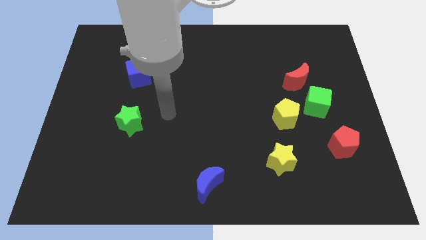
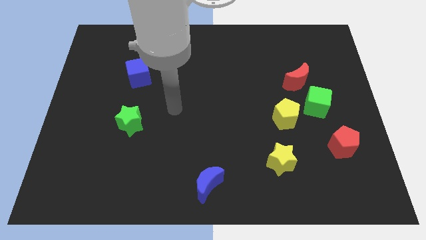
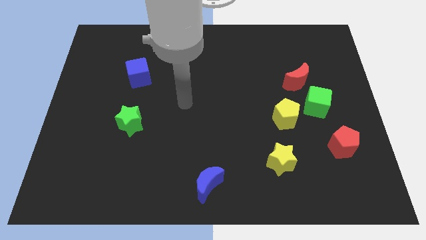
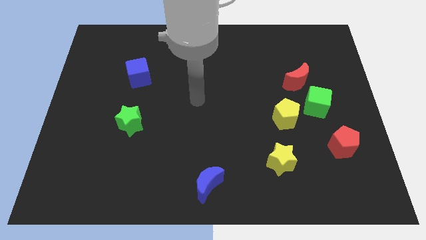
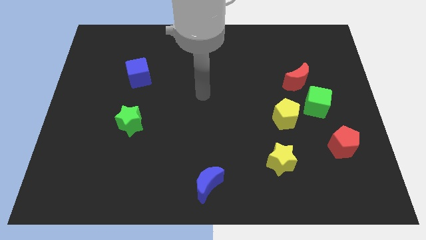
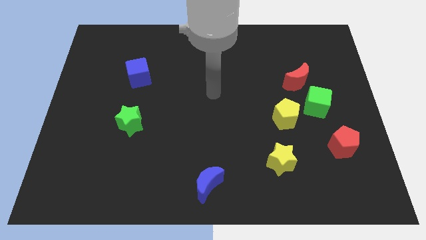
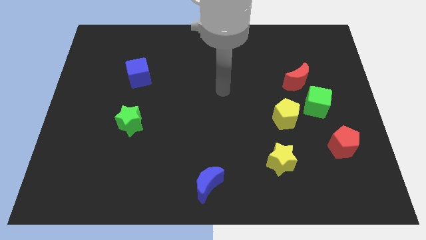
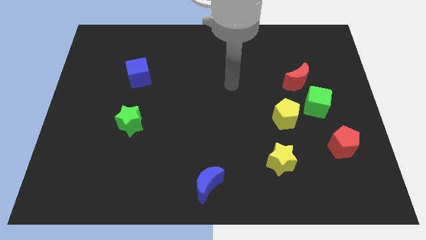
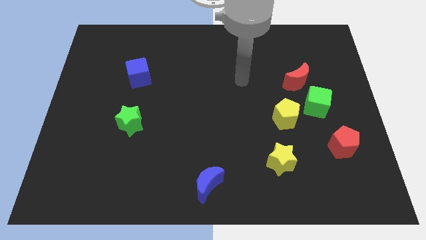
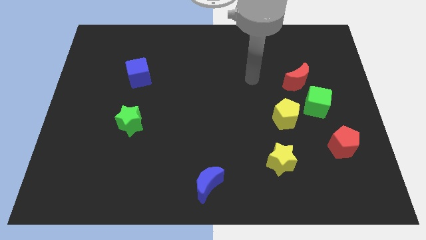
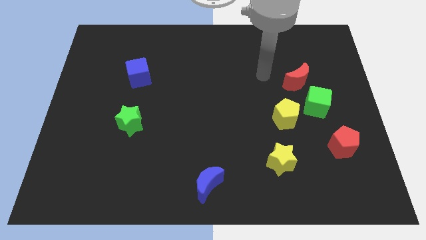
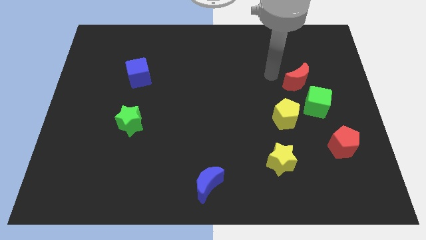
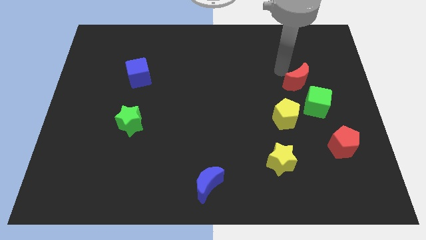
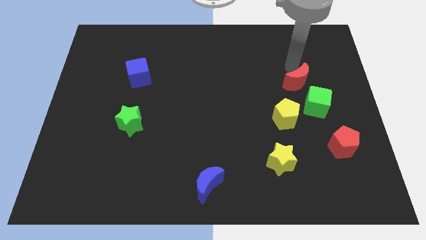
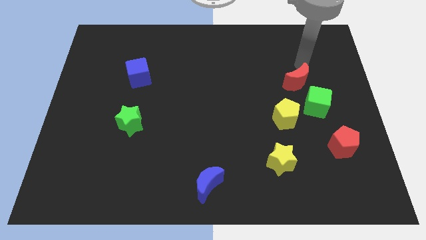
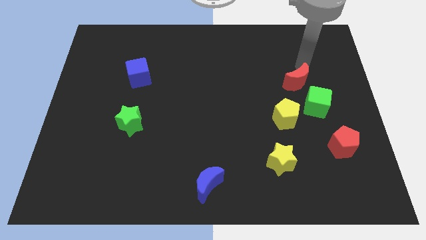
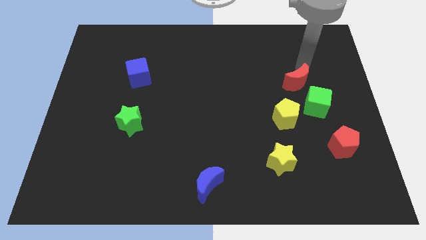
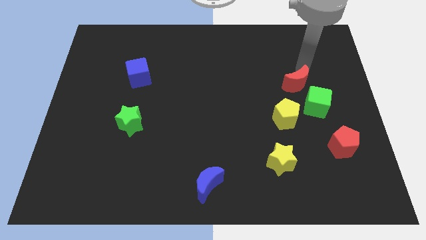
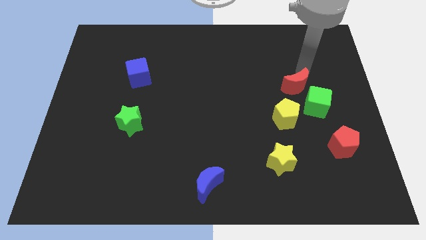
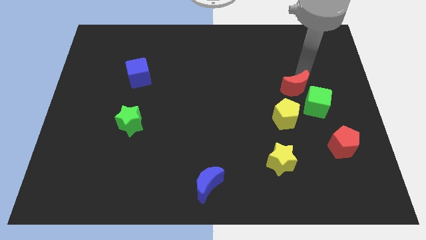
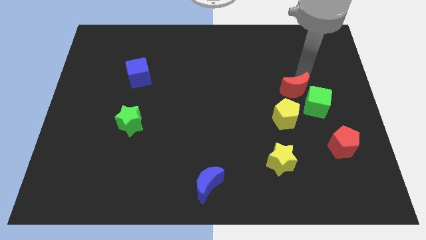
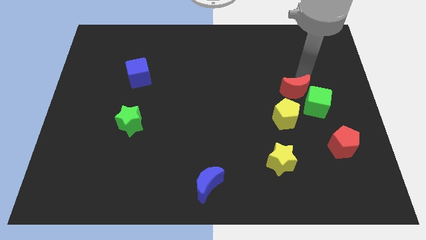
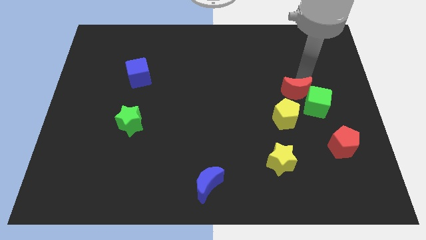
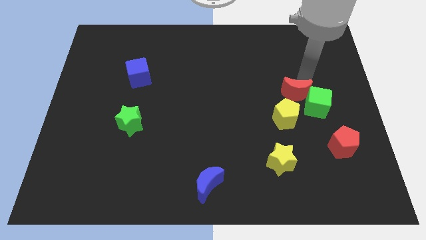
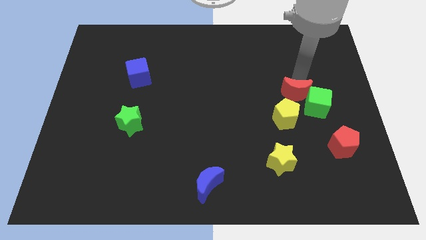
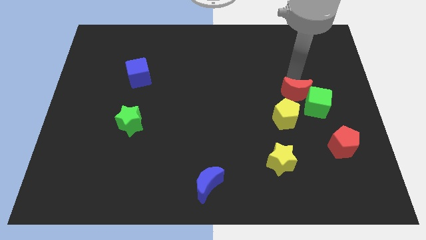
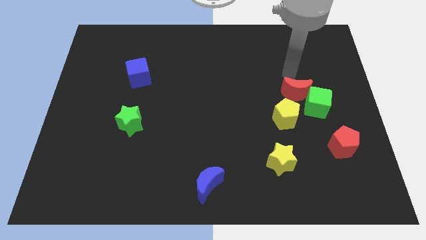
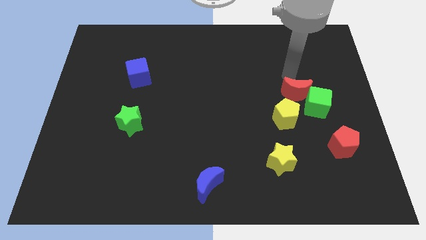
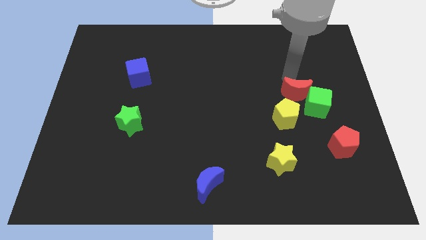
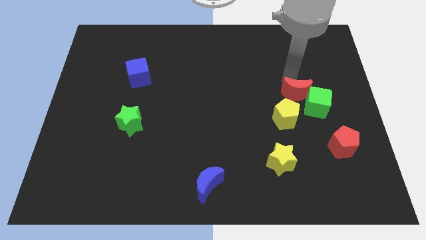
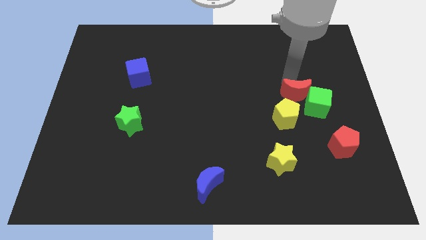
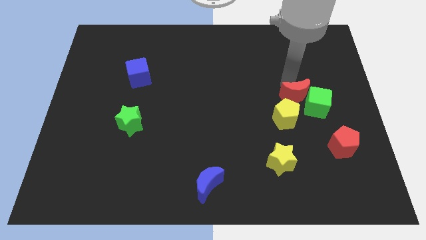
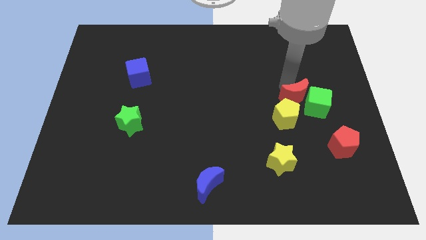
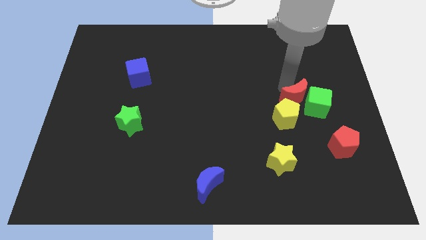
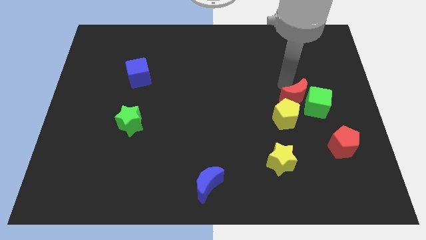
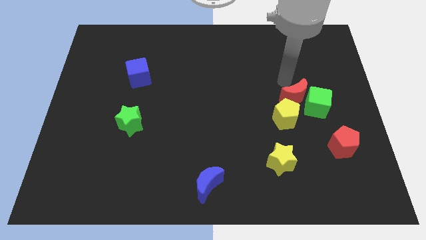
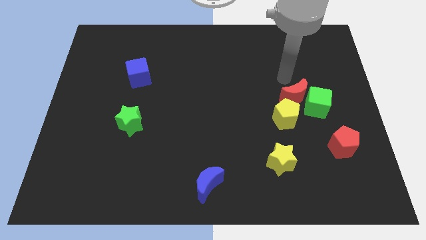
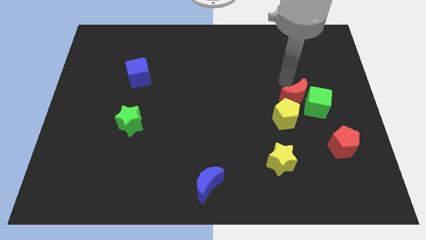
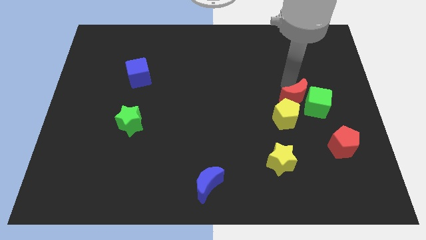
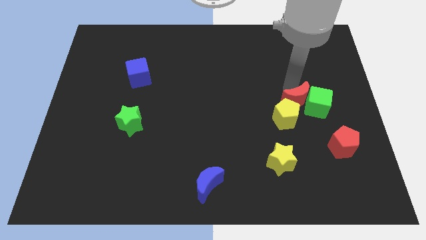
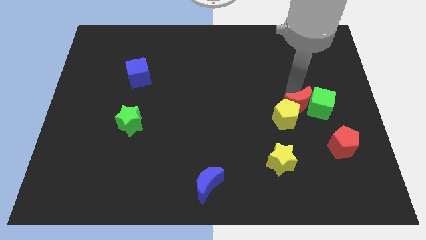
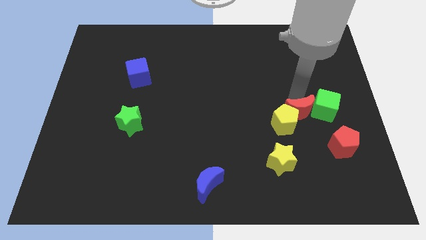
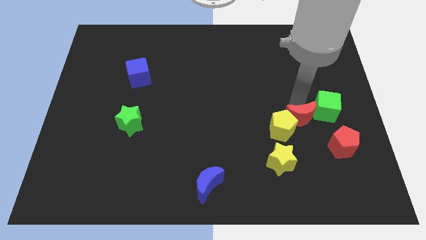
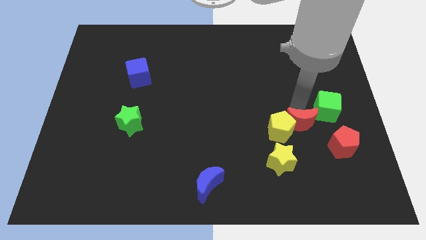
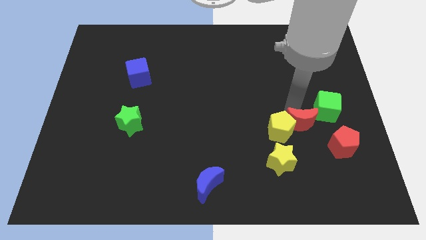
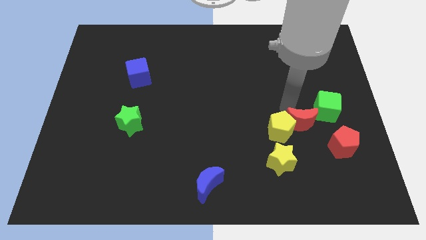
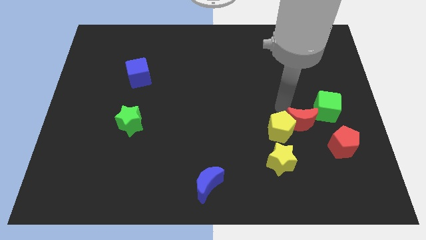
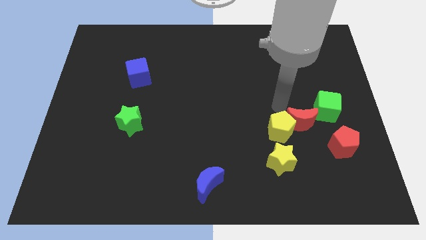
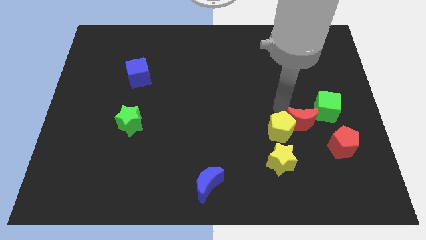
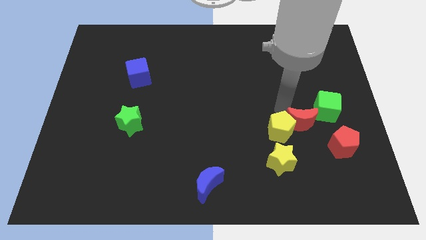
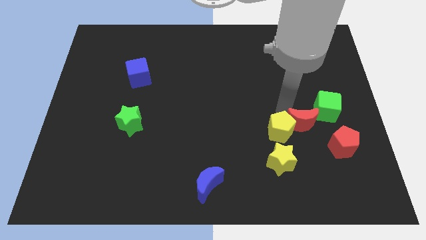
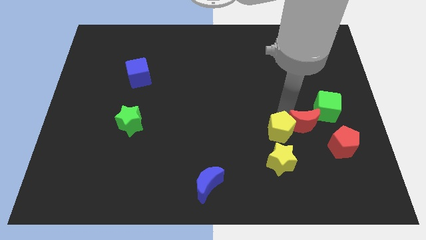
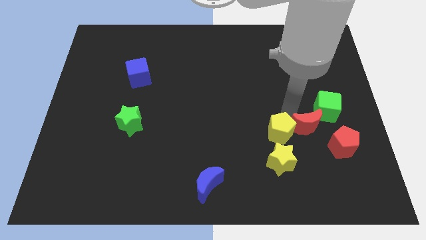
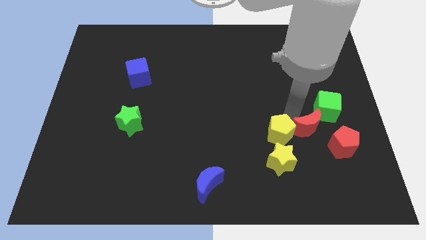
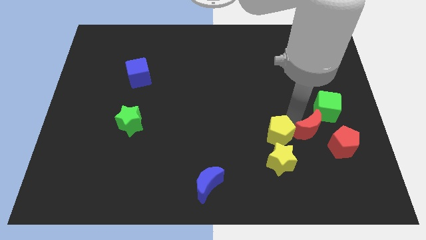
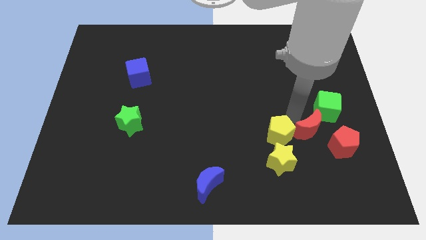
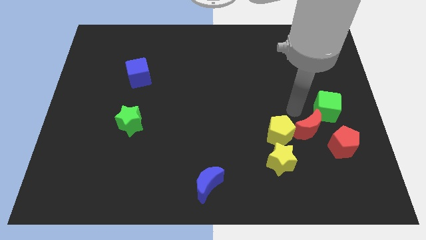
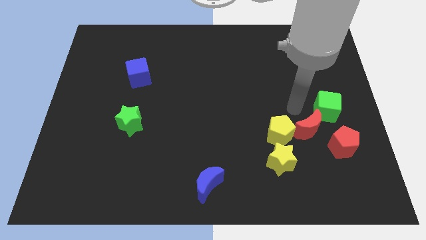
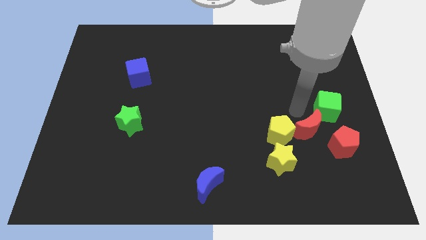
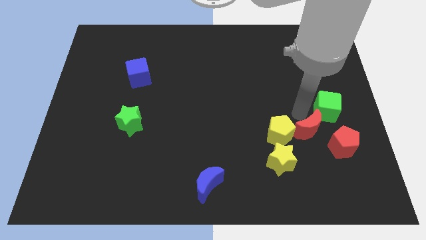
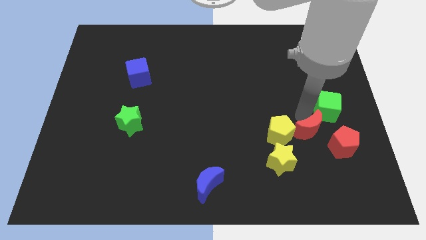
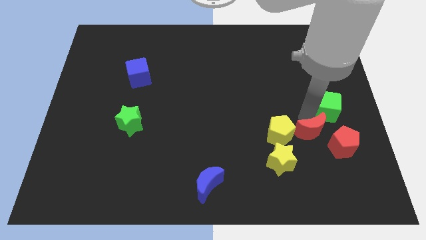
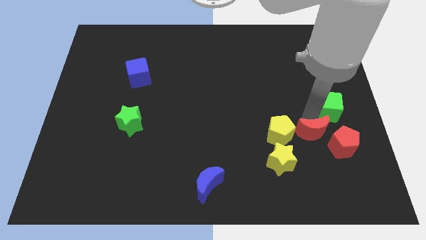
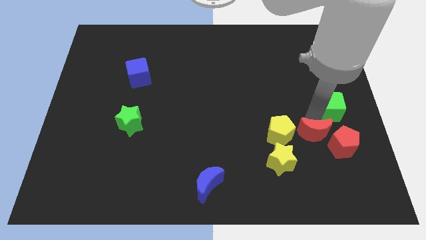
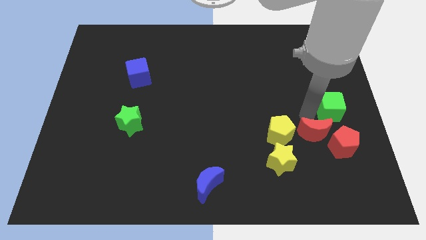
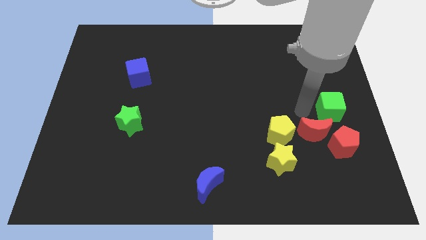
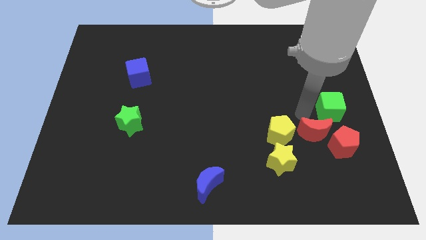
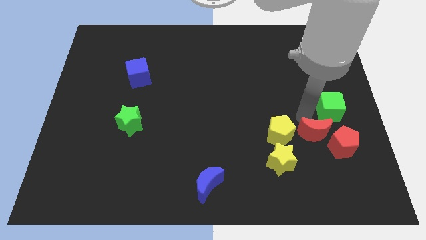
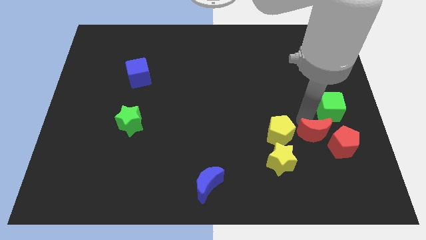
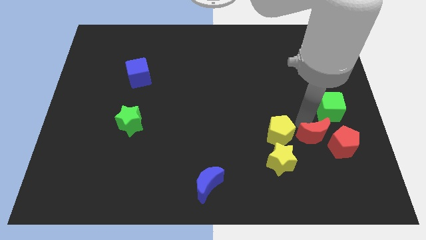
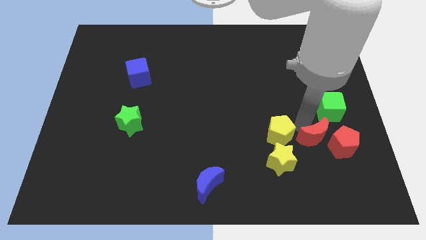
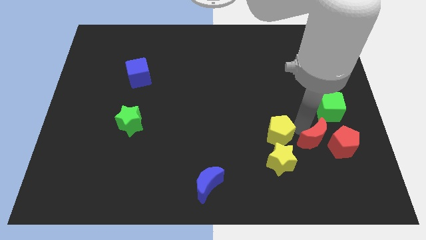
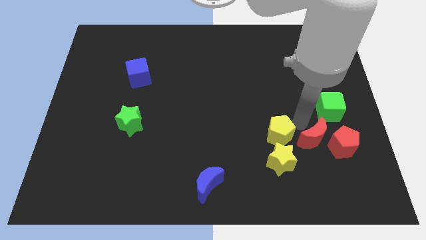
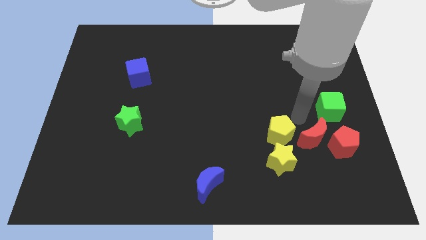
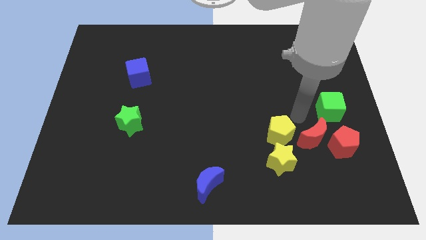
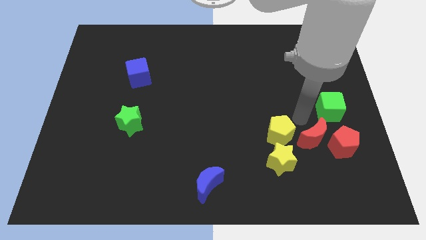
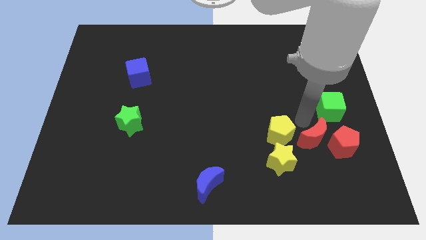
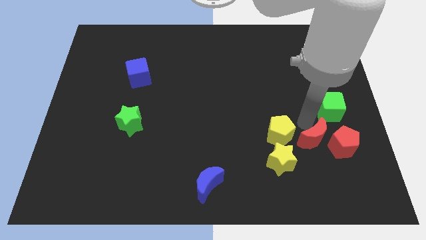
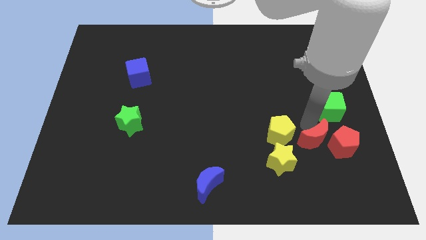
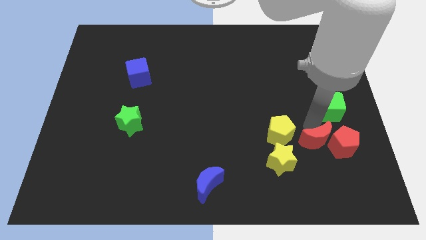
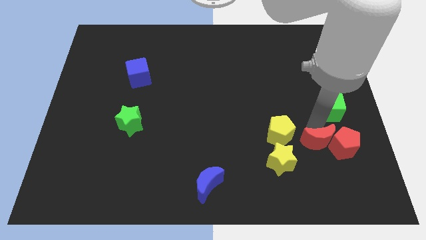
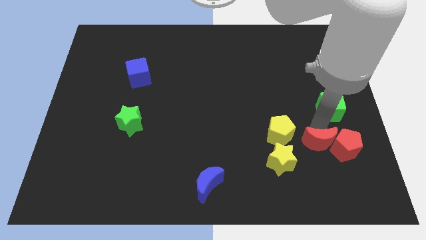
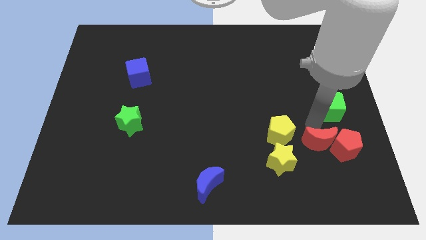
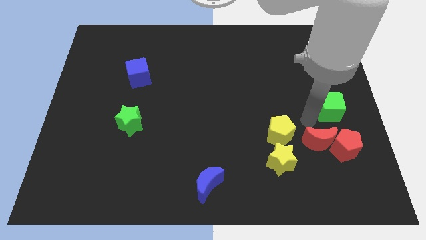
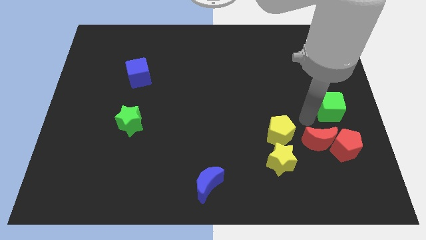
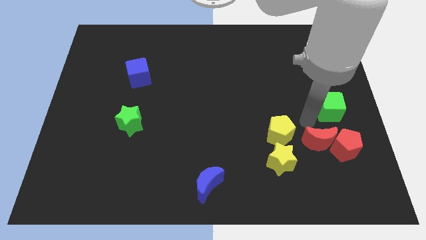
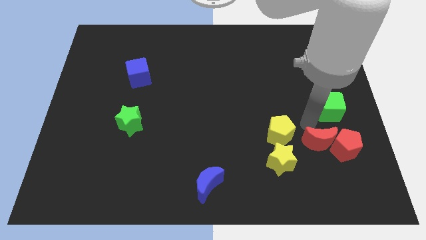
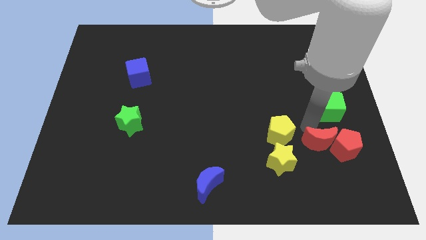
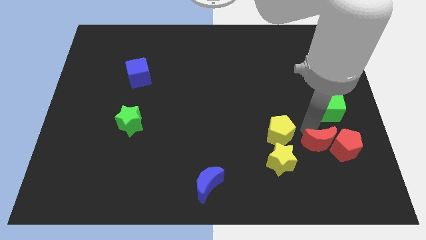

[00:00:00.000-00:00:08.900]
push the red moon to the right of the yellow star
